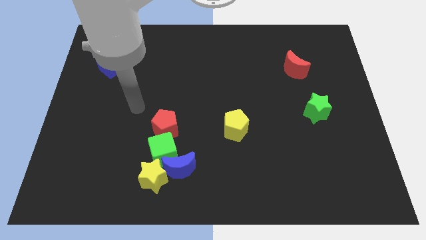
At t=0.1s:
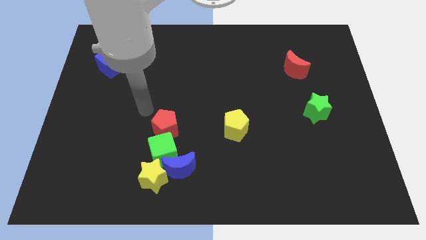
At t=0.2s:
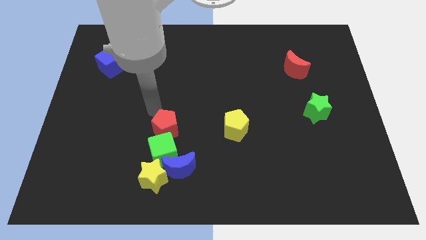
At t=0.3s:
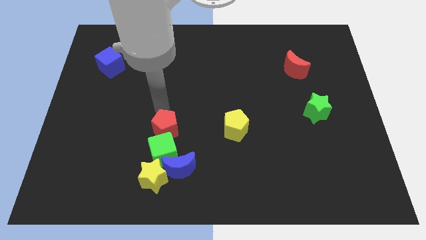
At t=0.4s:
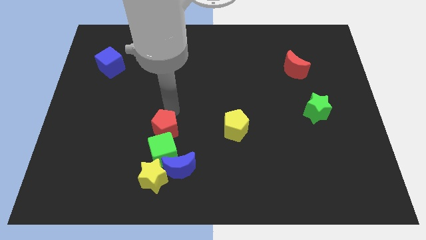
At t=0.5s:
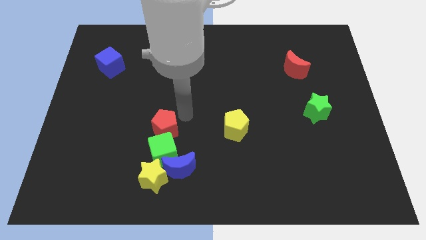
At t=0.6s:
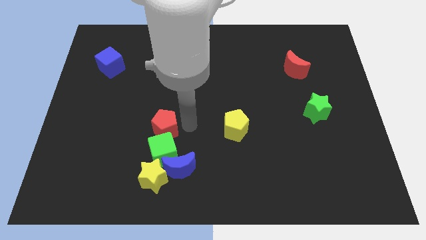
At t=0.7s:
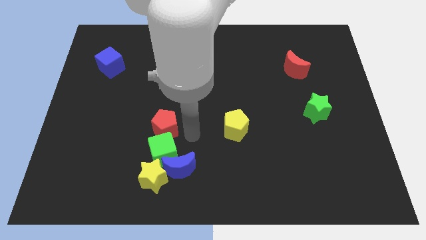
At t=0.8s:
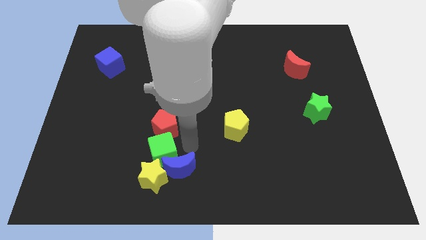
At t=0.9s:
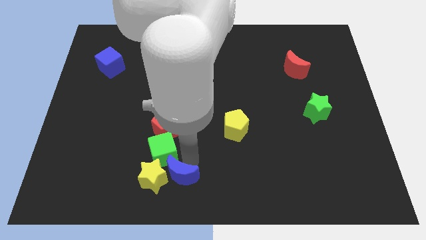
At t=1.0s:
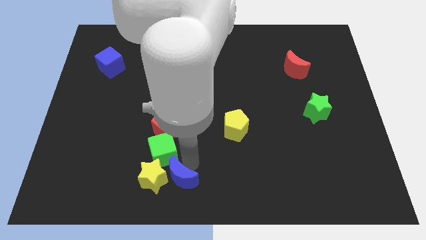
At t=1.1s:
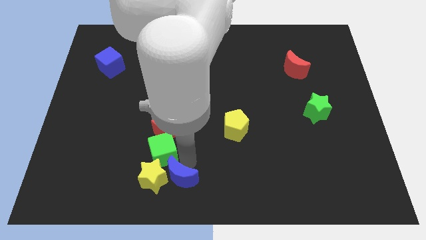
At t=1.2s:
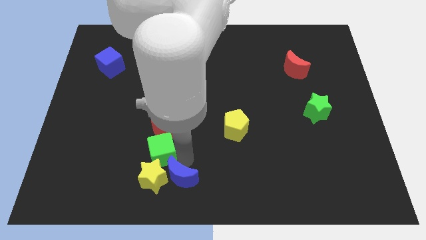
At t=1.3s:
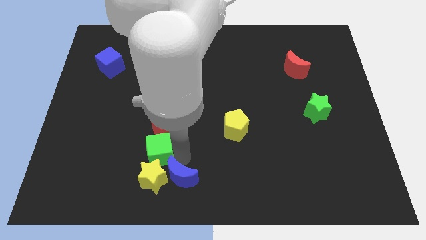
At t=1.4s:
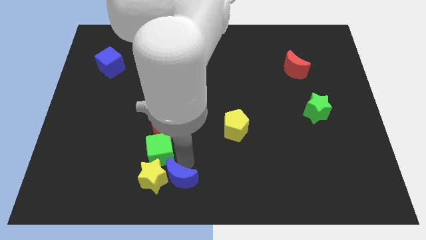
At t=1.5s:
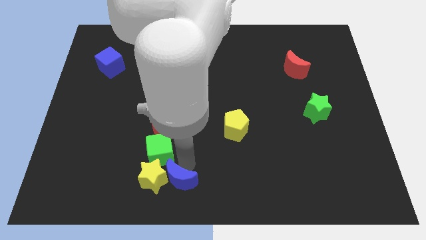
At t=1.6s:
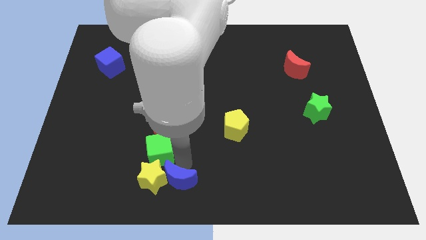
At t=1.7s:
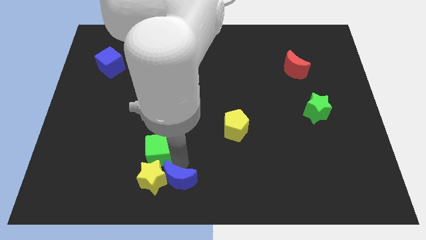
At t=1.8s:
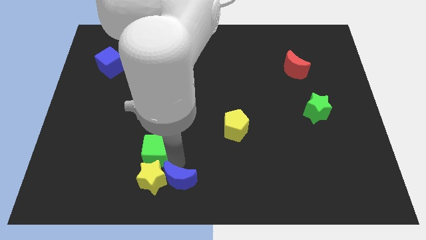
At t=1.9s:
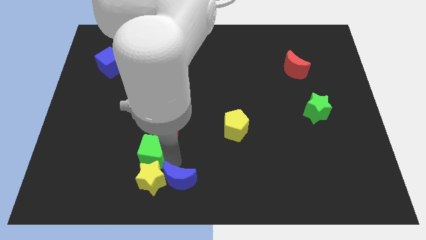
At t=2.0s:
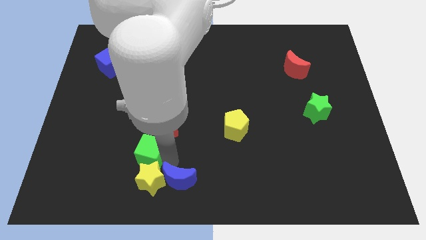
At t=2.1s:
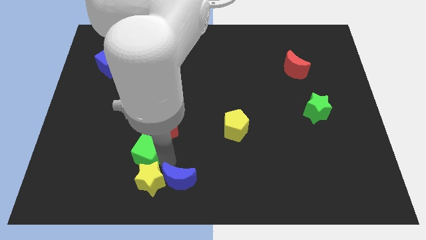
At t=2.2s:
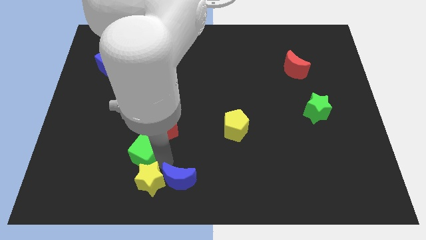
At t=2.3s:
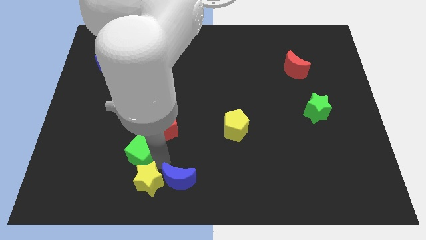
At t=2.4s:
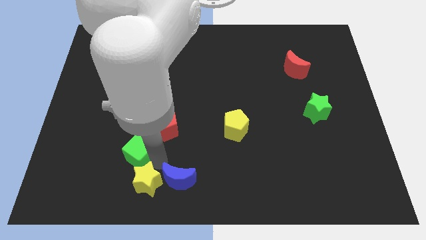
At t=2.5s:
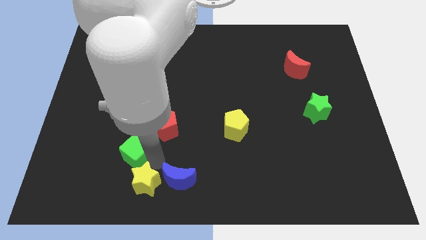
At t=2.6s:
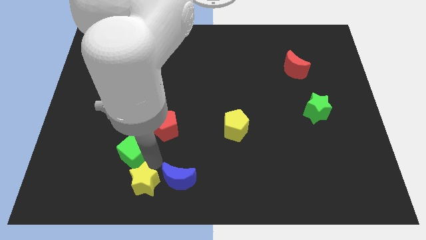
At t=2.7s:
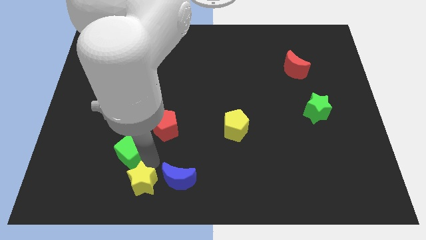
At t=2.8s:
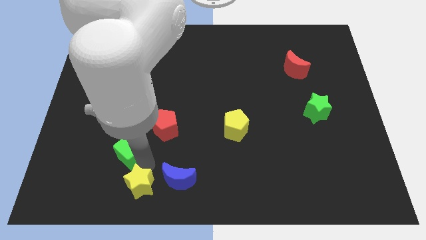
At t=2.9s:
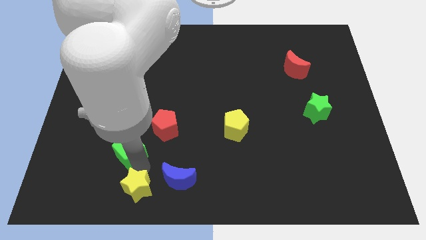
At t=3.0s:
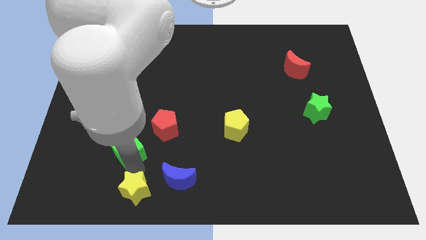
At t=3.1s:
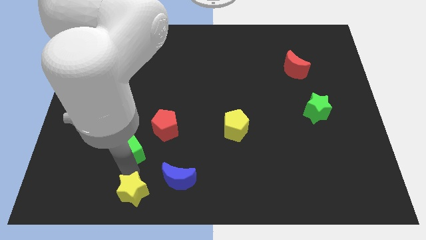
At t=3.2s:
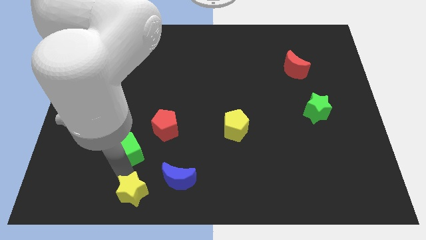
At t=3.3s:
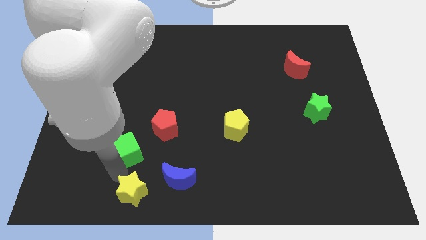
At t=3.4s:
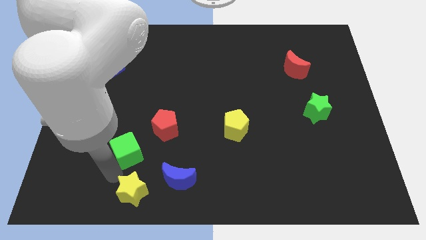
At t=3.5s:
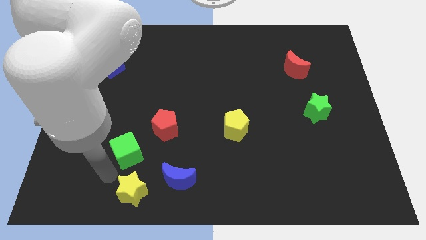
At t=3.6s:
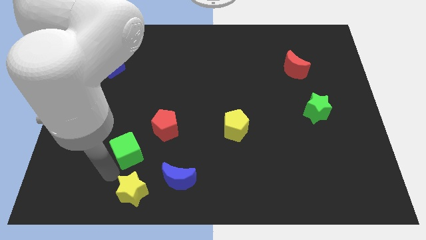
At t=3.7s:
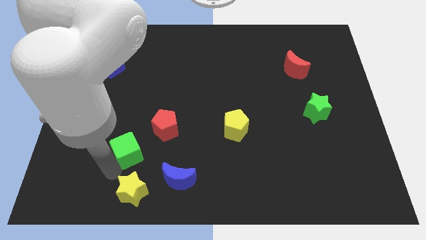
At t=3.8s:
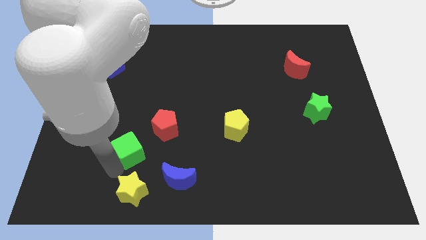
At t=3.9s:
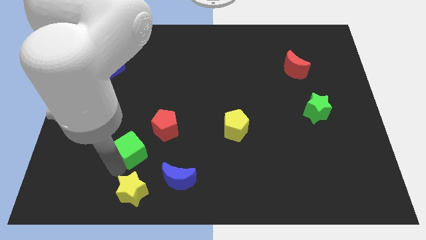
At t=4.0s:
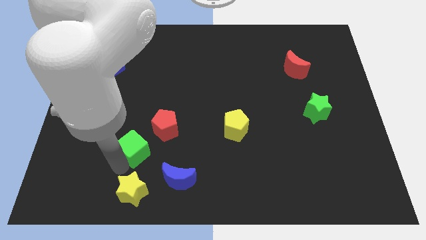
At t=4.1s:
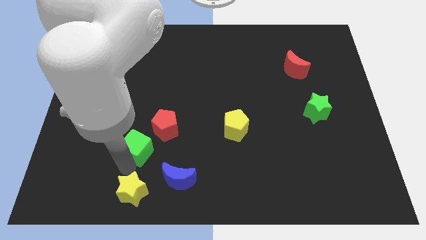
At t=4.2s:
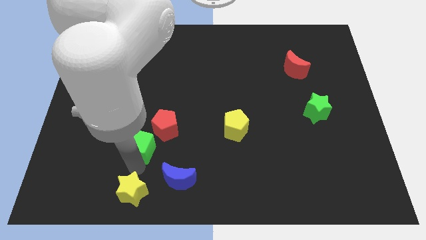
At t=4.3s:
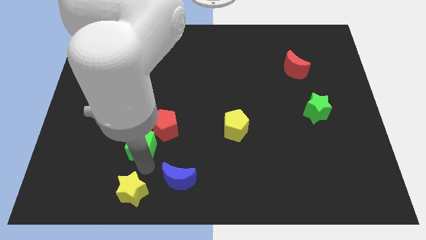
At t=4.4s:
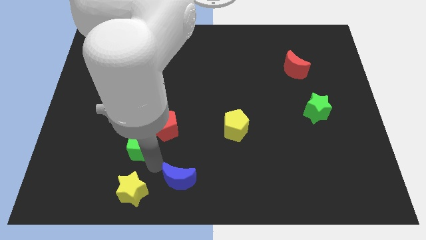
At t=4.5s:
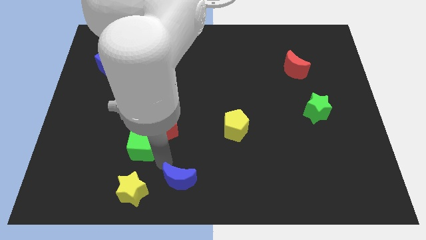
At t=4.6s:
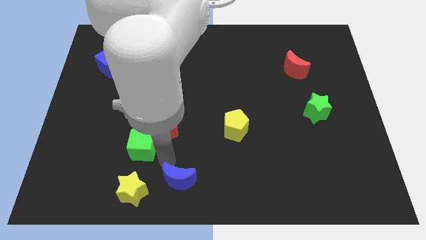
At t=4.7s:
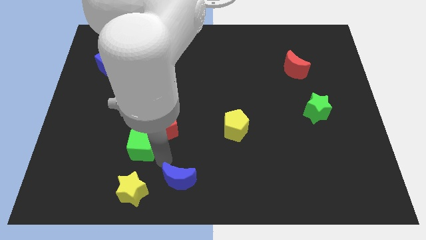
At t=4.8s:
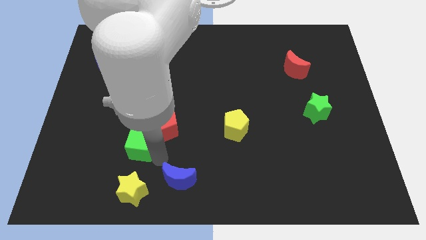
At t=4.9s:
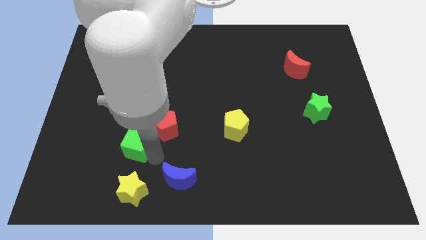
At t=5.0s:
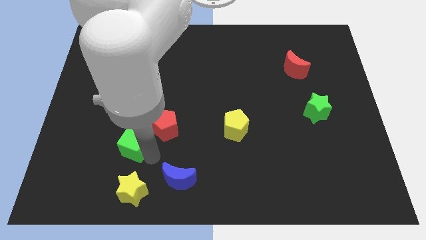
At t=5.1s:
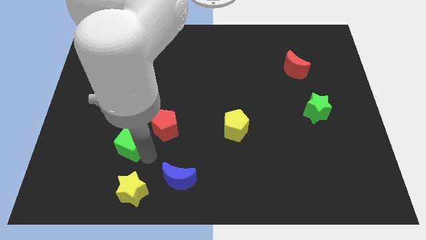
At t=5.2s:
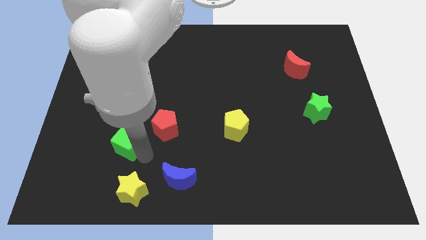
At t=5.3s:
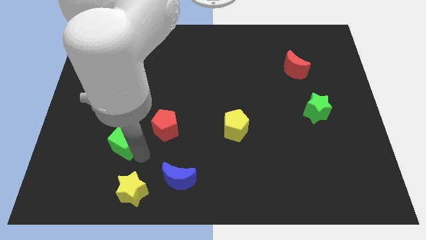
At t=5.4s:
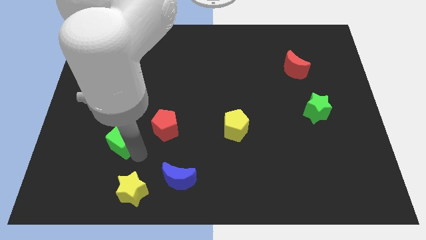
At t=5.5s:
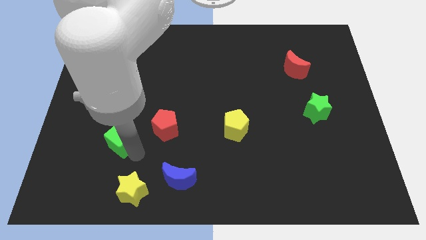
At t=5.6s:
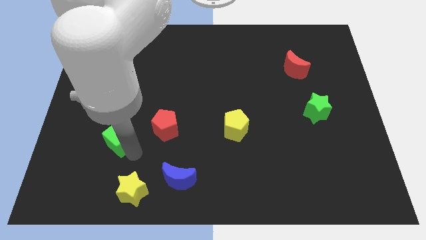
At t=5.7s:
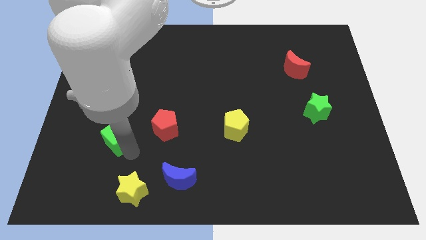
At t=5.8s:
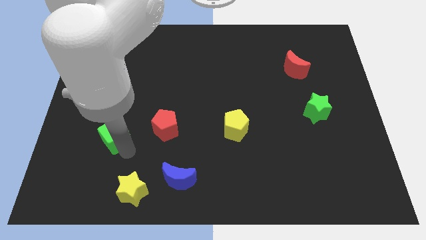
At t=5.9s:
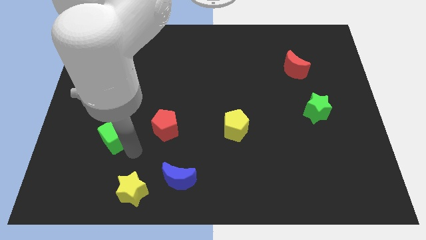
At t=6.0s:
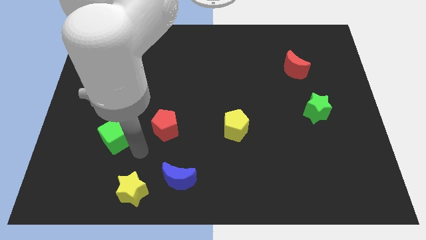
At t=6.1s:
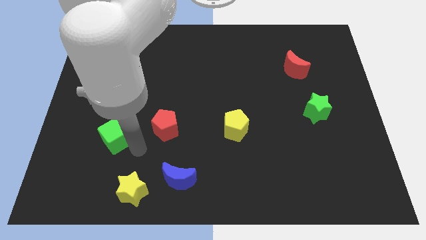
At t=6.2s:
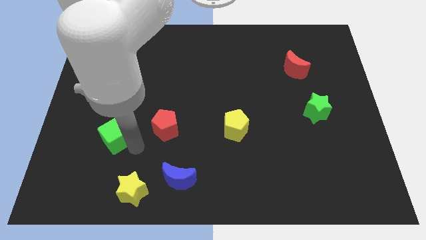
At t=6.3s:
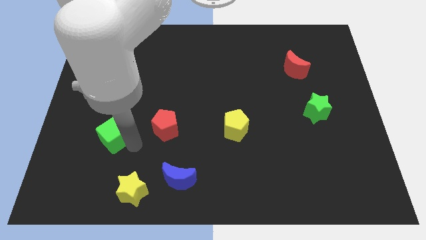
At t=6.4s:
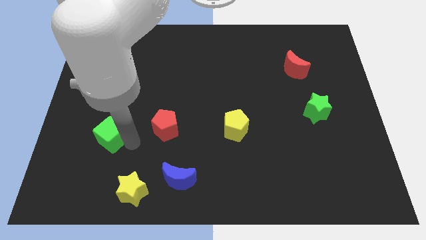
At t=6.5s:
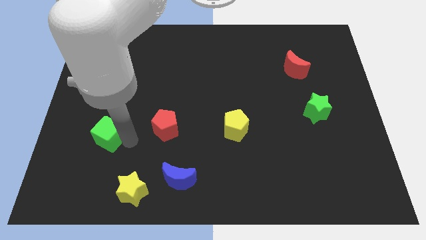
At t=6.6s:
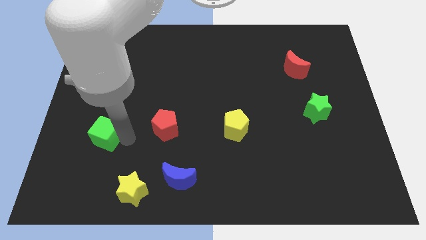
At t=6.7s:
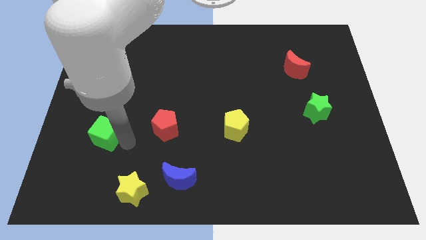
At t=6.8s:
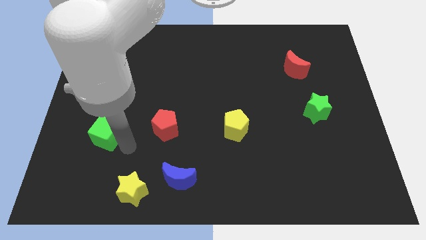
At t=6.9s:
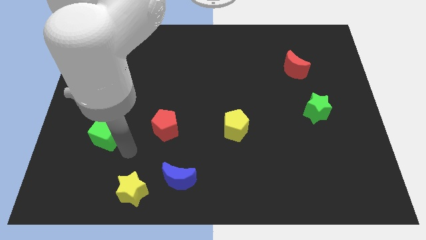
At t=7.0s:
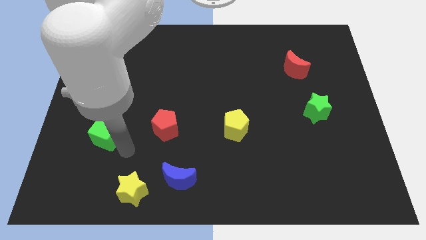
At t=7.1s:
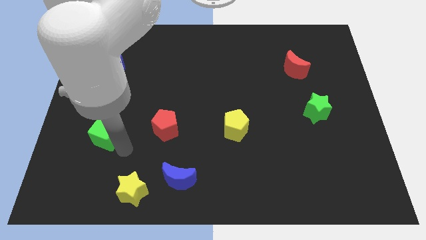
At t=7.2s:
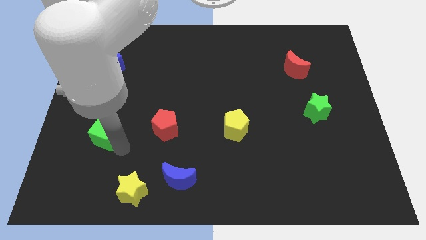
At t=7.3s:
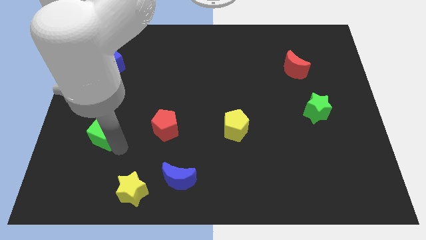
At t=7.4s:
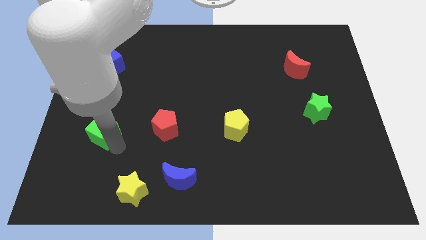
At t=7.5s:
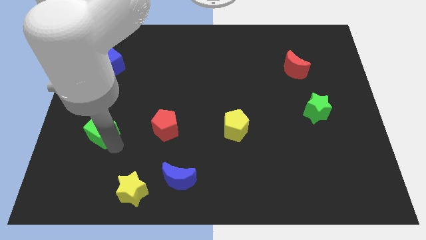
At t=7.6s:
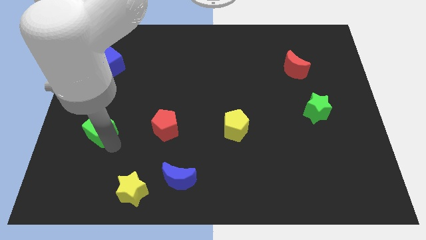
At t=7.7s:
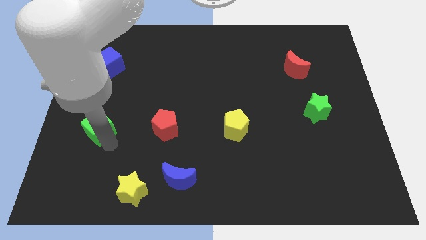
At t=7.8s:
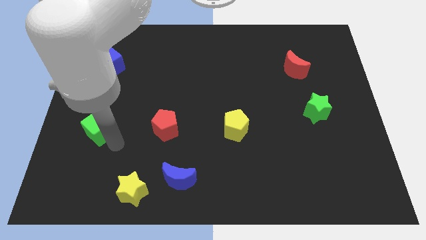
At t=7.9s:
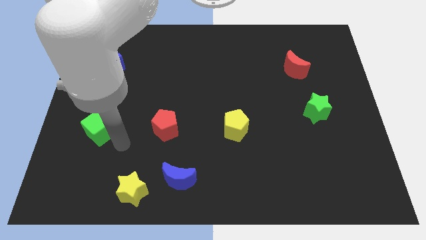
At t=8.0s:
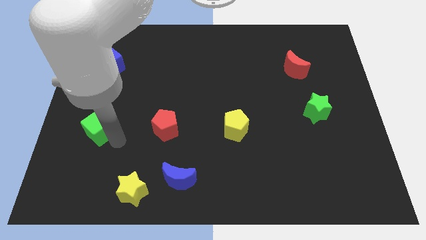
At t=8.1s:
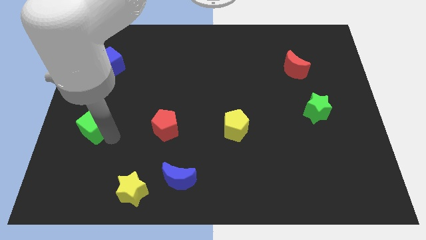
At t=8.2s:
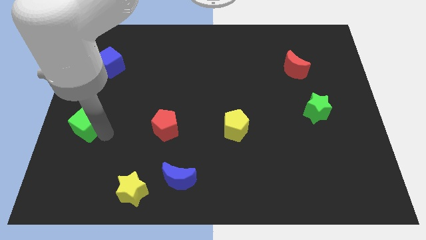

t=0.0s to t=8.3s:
push the green cube to the left side of the board
